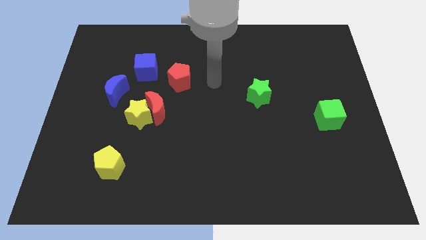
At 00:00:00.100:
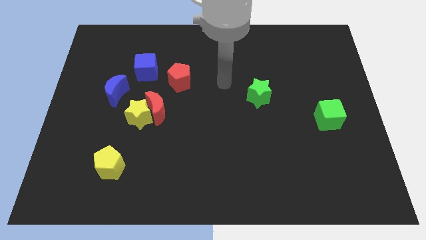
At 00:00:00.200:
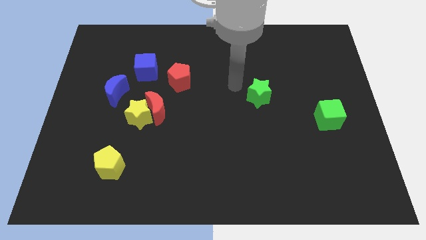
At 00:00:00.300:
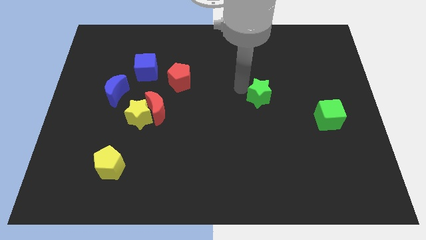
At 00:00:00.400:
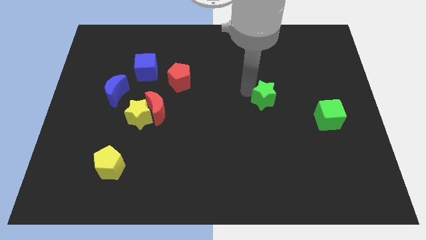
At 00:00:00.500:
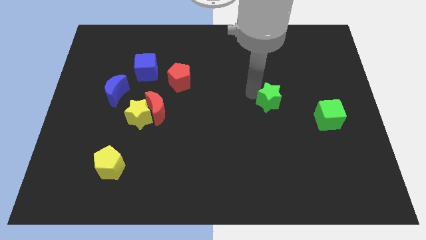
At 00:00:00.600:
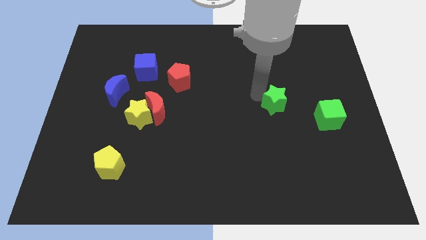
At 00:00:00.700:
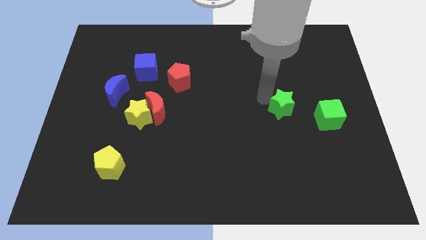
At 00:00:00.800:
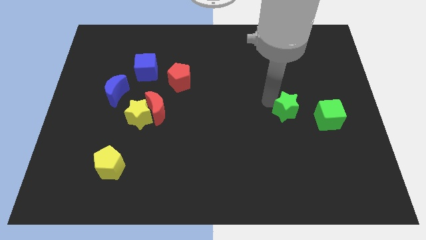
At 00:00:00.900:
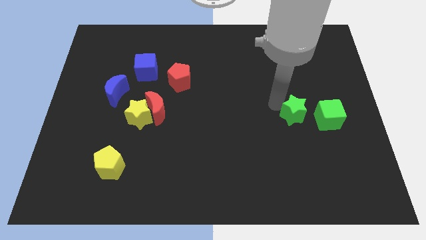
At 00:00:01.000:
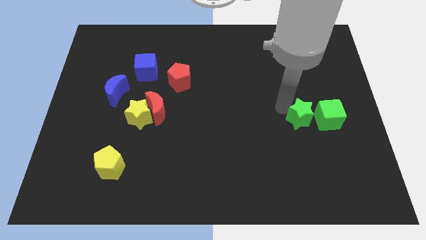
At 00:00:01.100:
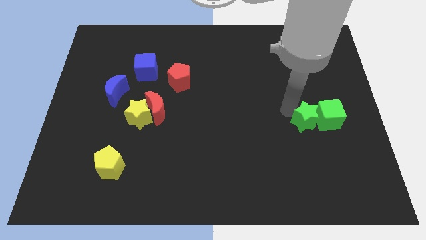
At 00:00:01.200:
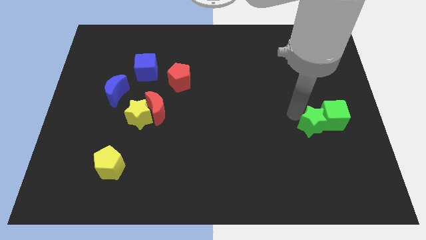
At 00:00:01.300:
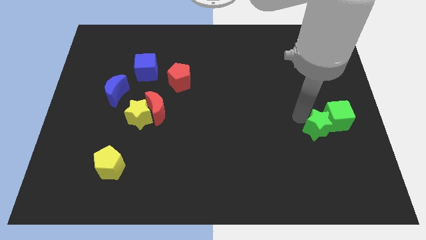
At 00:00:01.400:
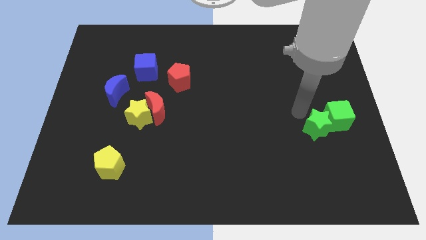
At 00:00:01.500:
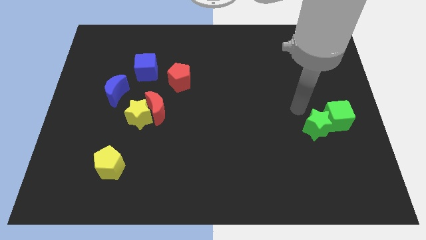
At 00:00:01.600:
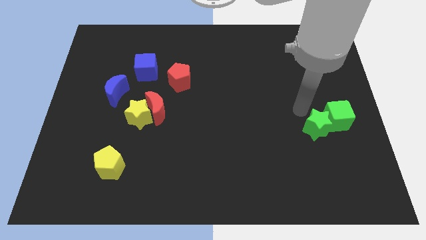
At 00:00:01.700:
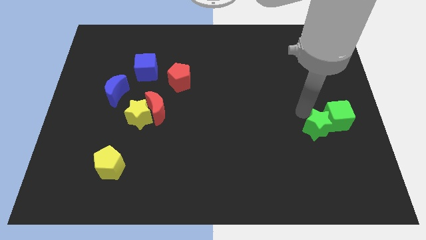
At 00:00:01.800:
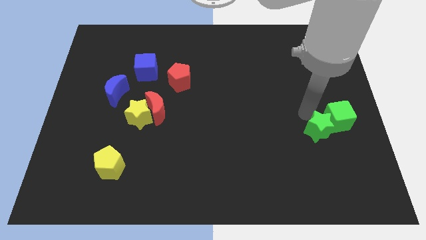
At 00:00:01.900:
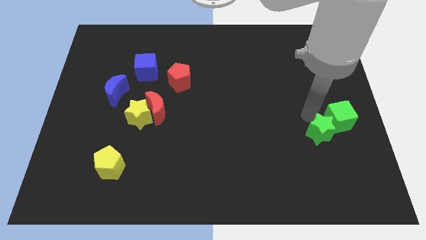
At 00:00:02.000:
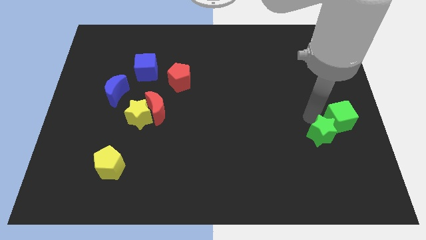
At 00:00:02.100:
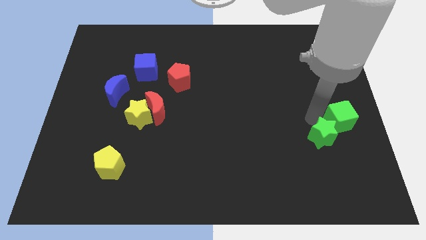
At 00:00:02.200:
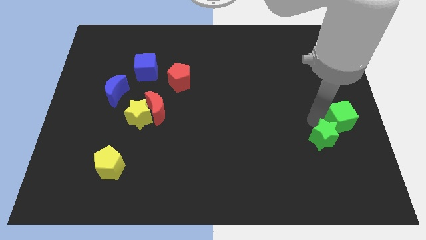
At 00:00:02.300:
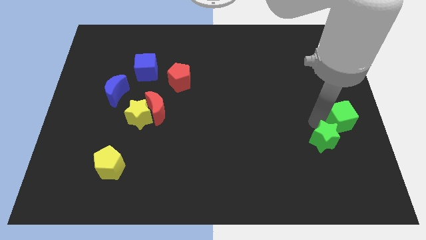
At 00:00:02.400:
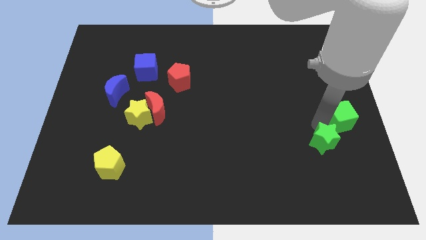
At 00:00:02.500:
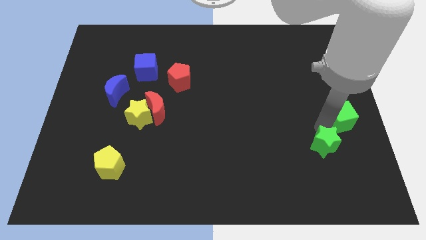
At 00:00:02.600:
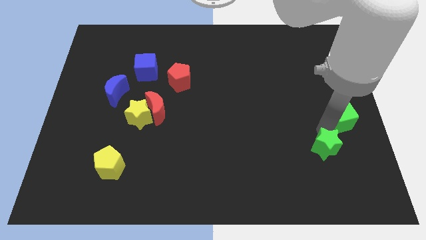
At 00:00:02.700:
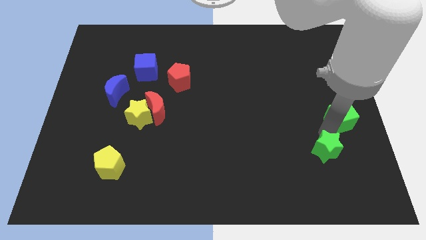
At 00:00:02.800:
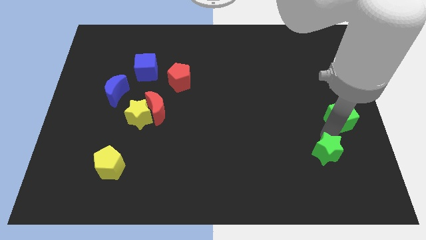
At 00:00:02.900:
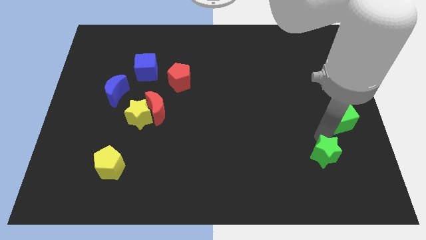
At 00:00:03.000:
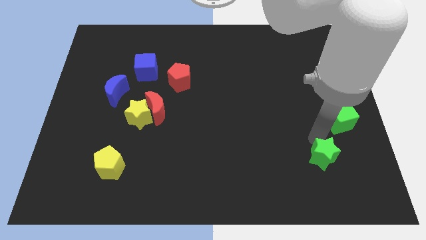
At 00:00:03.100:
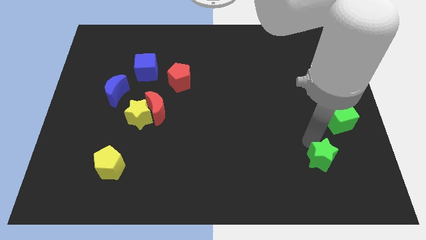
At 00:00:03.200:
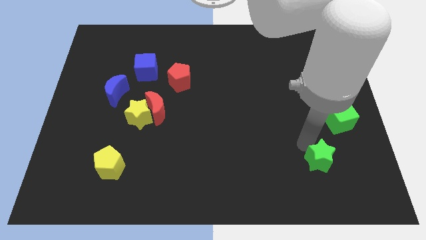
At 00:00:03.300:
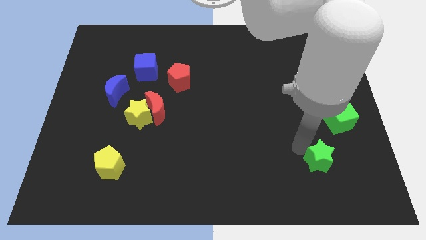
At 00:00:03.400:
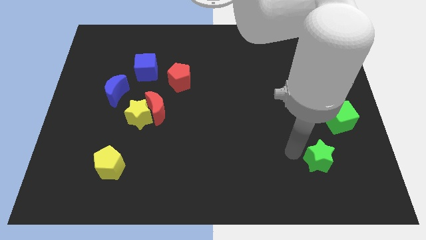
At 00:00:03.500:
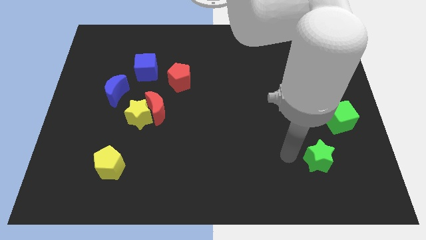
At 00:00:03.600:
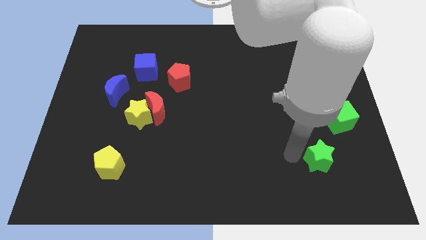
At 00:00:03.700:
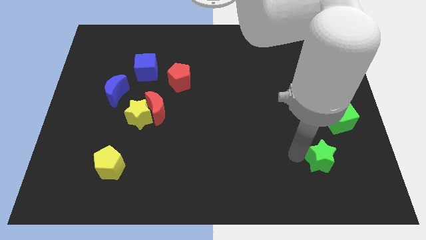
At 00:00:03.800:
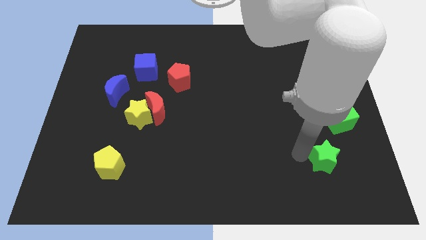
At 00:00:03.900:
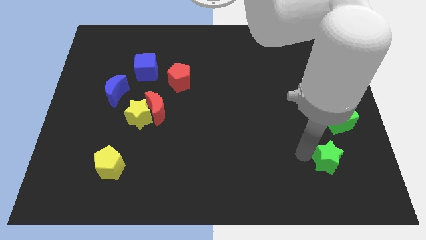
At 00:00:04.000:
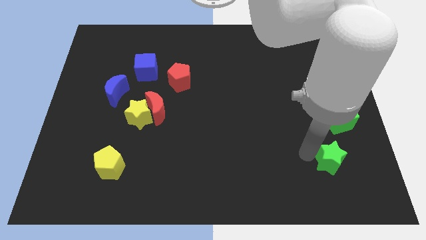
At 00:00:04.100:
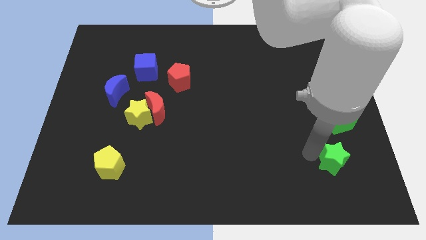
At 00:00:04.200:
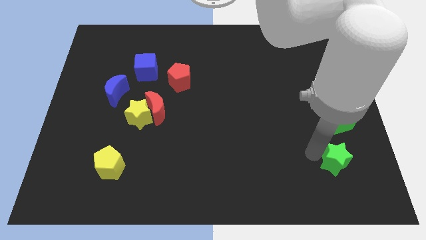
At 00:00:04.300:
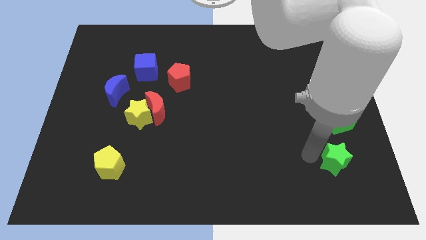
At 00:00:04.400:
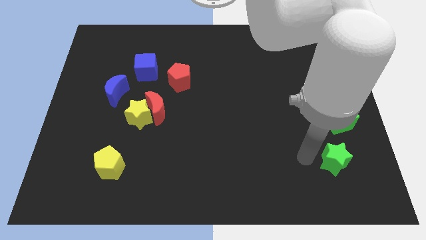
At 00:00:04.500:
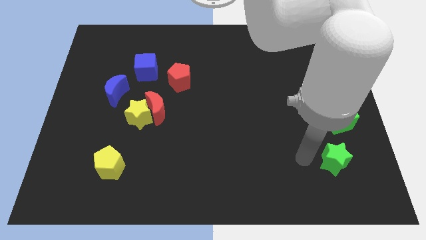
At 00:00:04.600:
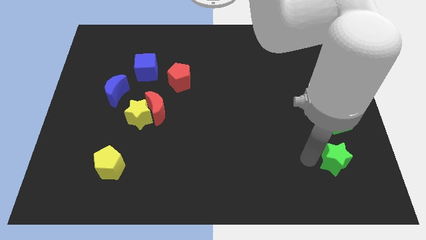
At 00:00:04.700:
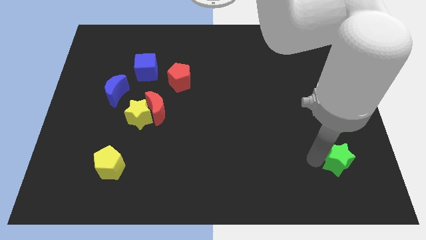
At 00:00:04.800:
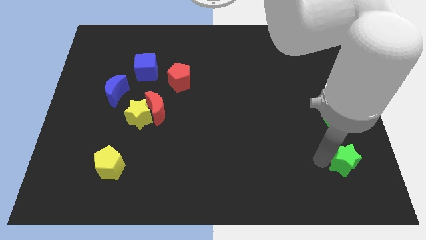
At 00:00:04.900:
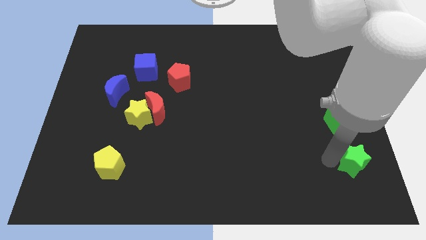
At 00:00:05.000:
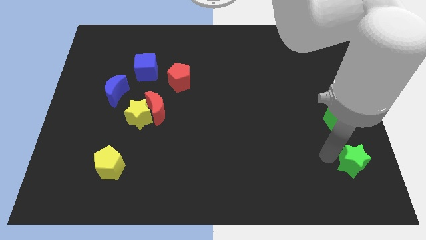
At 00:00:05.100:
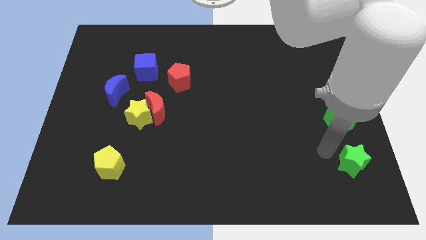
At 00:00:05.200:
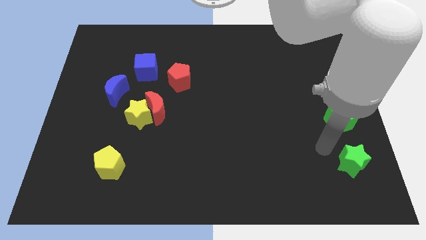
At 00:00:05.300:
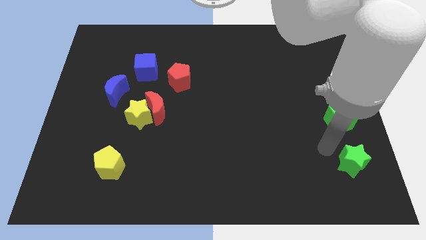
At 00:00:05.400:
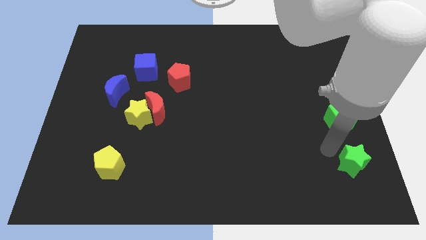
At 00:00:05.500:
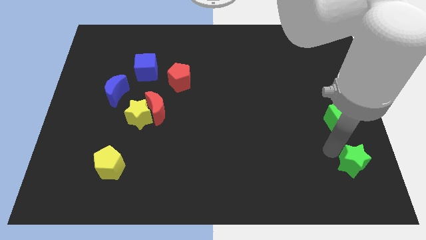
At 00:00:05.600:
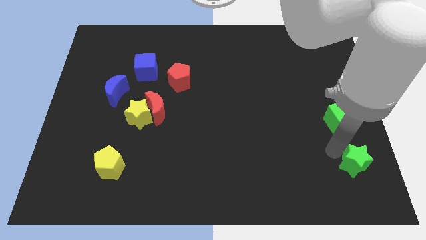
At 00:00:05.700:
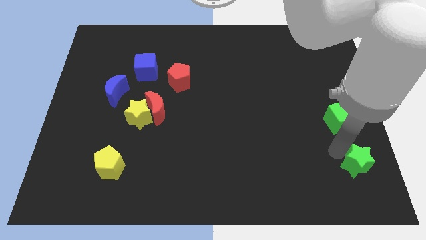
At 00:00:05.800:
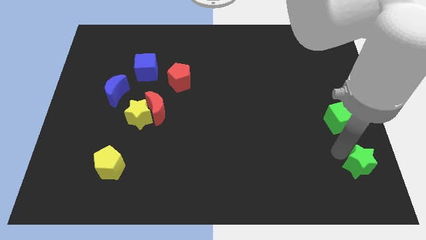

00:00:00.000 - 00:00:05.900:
slide the green star to the bottom right of the board

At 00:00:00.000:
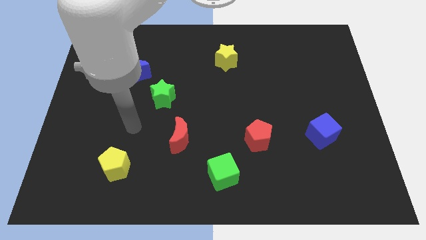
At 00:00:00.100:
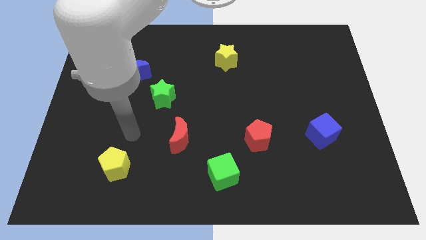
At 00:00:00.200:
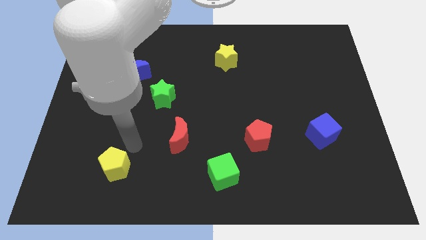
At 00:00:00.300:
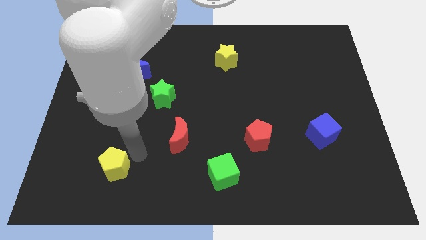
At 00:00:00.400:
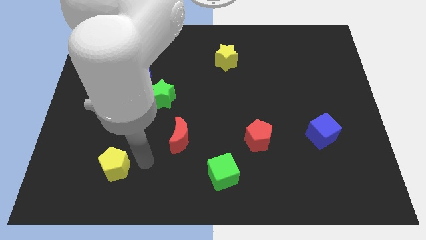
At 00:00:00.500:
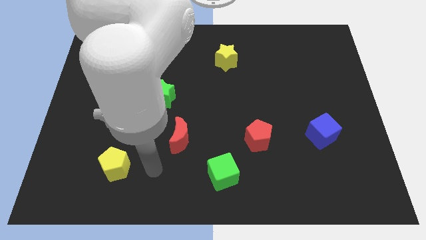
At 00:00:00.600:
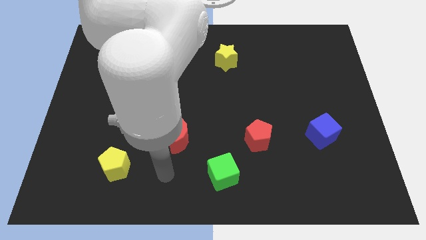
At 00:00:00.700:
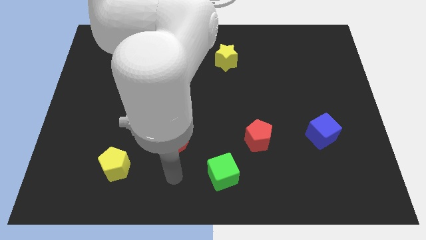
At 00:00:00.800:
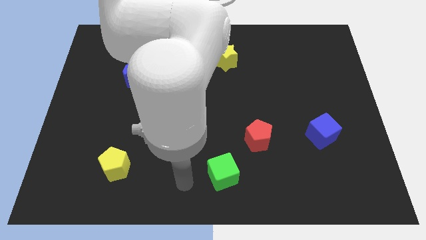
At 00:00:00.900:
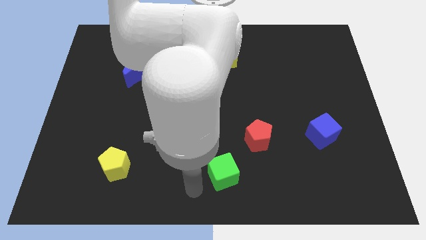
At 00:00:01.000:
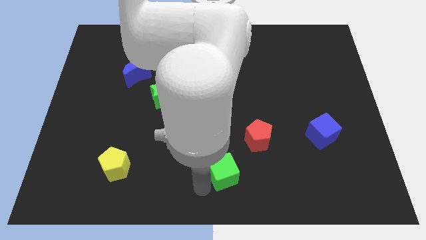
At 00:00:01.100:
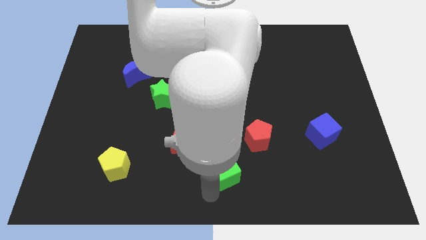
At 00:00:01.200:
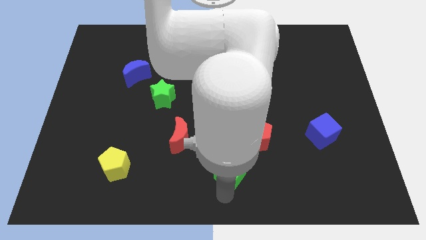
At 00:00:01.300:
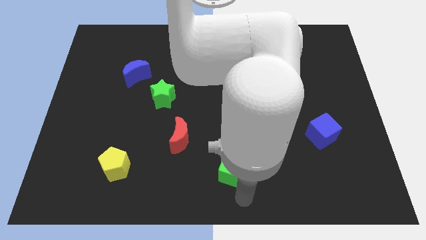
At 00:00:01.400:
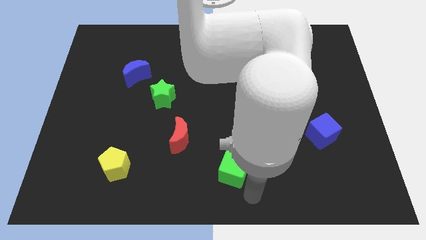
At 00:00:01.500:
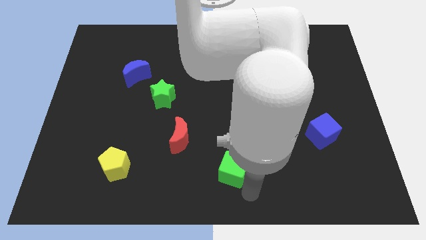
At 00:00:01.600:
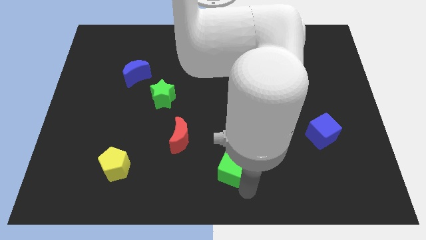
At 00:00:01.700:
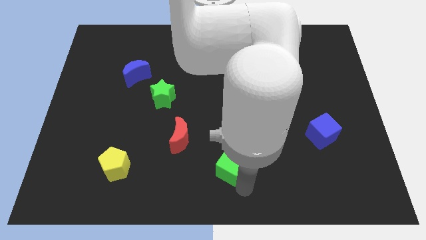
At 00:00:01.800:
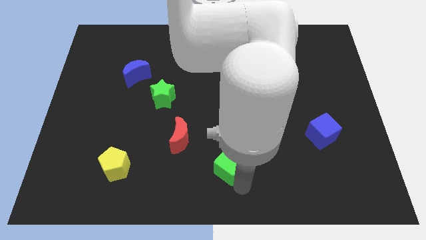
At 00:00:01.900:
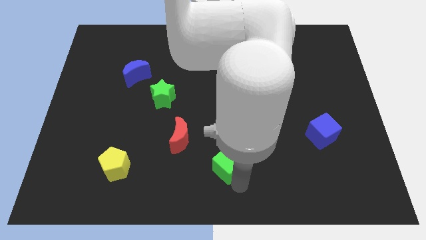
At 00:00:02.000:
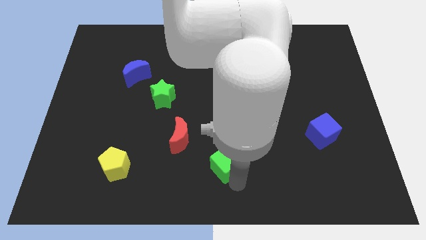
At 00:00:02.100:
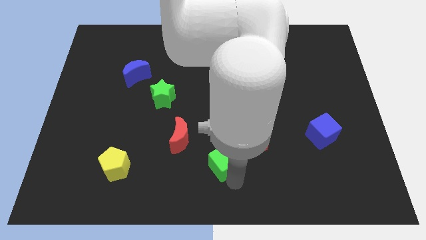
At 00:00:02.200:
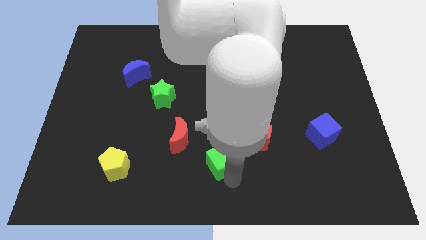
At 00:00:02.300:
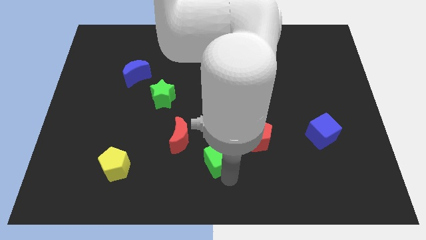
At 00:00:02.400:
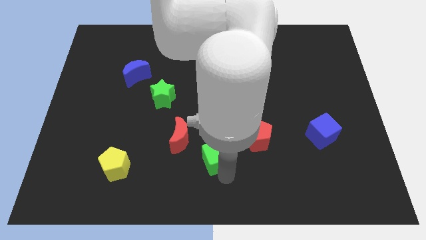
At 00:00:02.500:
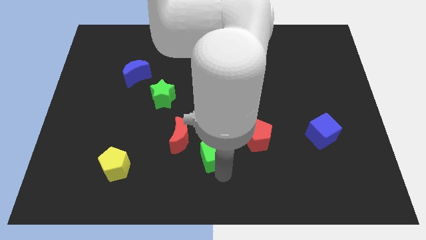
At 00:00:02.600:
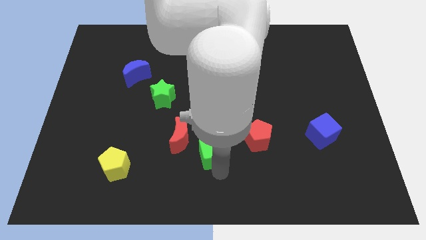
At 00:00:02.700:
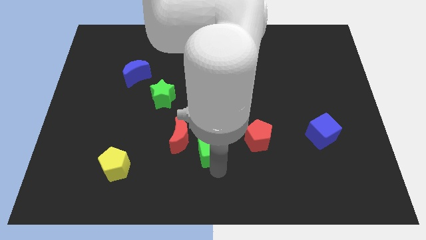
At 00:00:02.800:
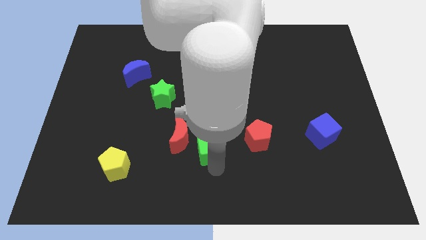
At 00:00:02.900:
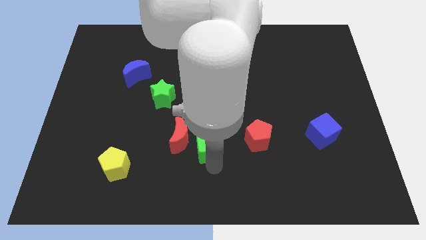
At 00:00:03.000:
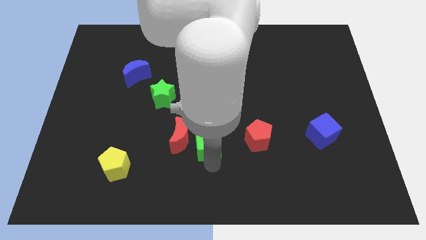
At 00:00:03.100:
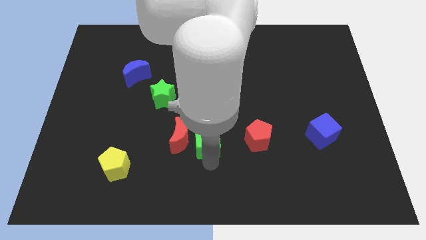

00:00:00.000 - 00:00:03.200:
push the green cube to the center of the board
